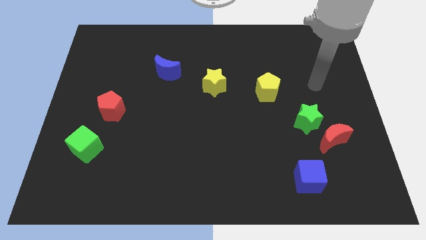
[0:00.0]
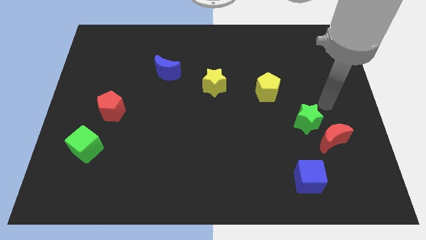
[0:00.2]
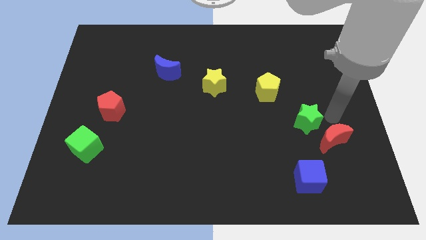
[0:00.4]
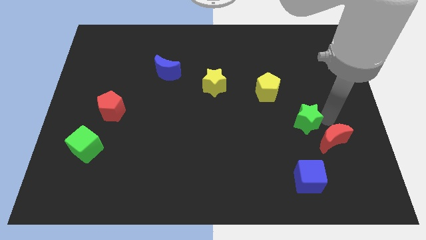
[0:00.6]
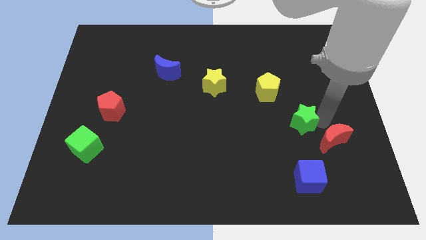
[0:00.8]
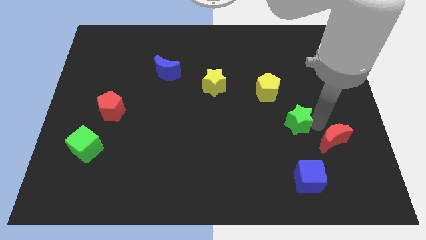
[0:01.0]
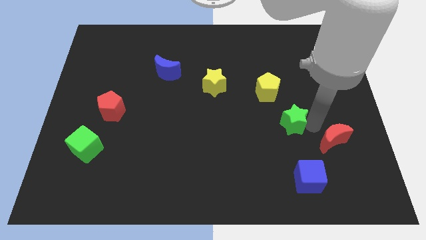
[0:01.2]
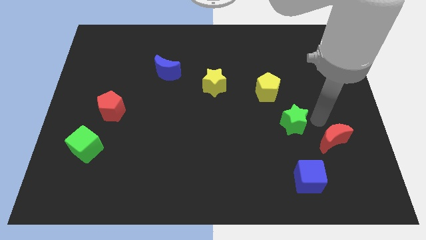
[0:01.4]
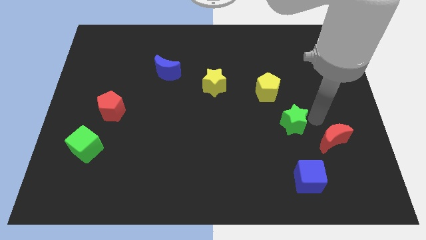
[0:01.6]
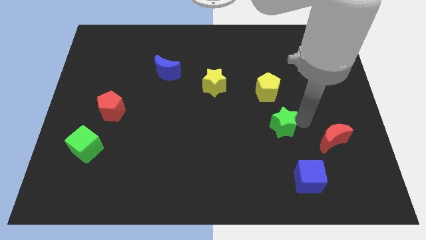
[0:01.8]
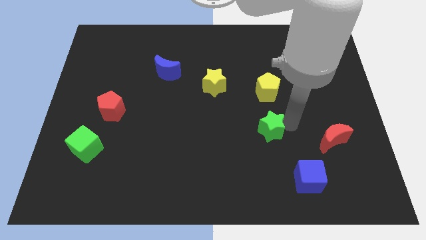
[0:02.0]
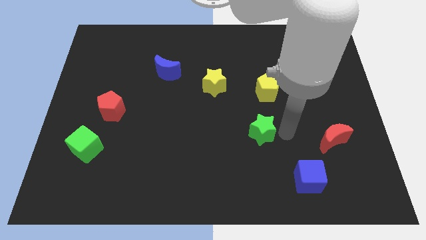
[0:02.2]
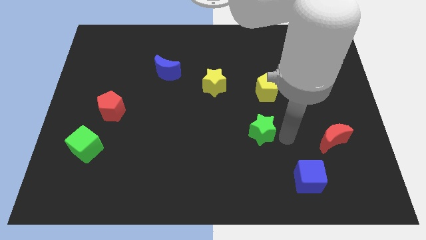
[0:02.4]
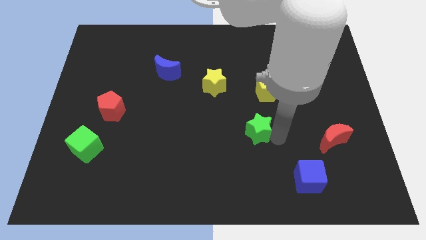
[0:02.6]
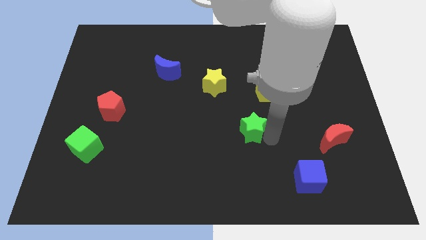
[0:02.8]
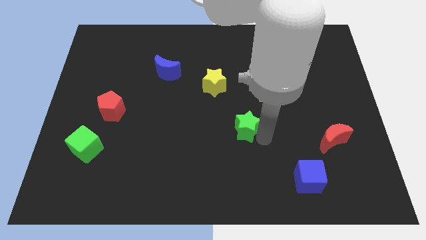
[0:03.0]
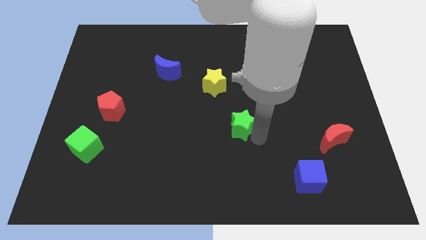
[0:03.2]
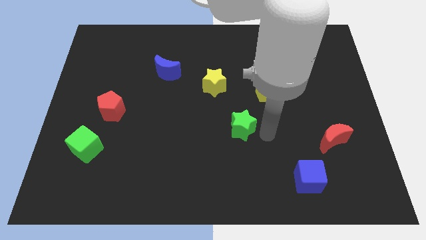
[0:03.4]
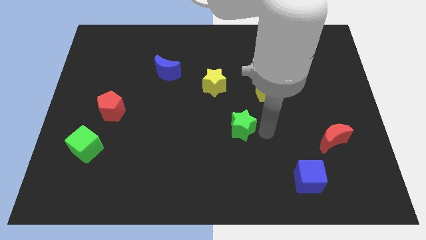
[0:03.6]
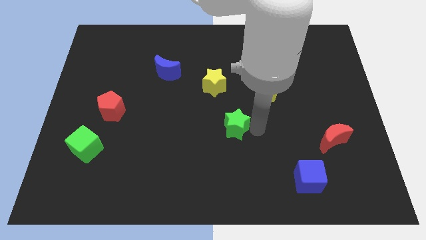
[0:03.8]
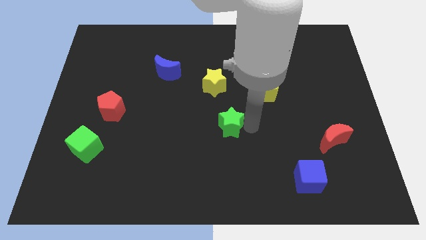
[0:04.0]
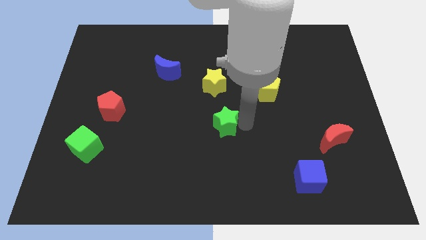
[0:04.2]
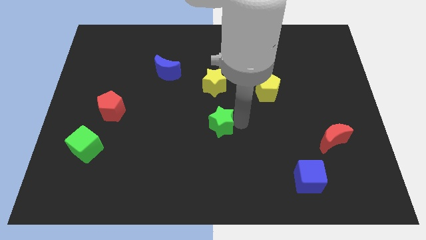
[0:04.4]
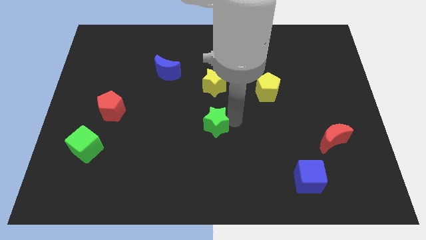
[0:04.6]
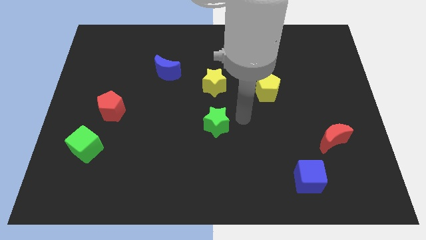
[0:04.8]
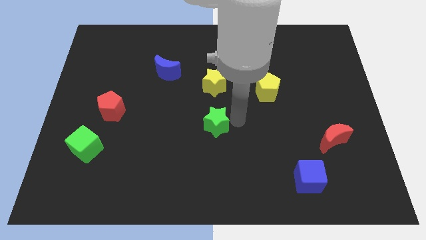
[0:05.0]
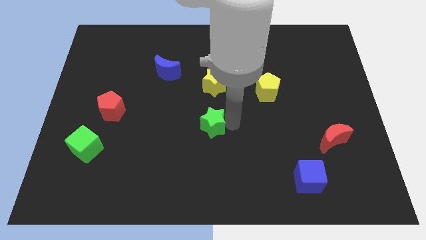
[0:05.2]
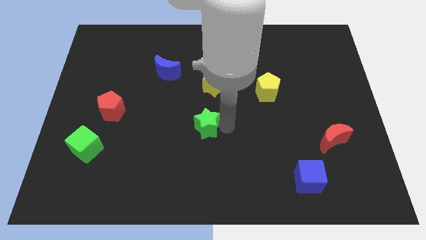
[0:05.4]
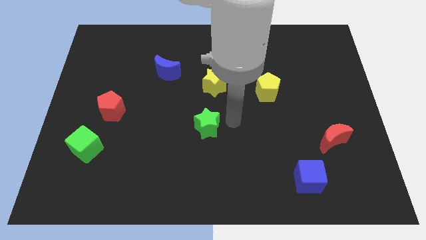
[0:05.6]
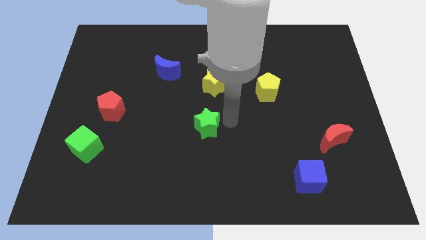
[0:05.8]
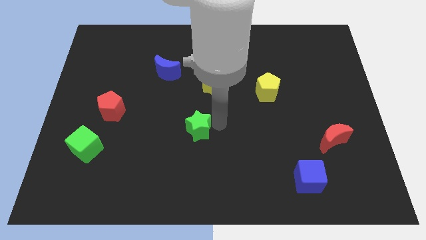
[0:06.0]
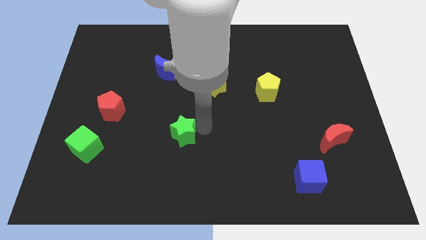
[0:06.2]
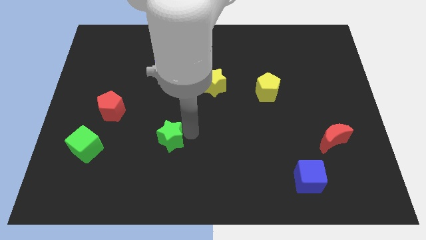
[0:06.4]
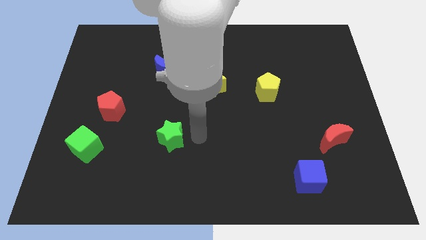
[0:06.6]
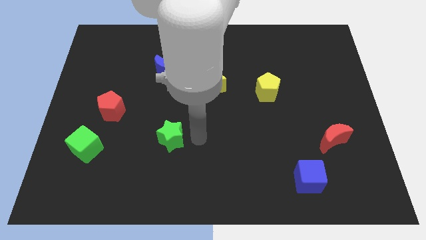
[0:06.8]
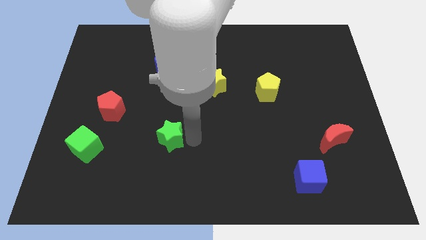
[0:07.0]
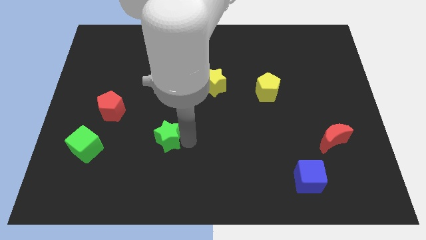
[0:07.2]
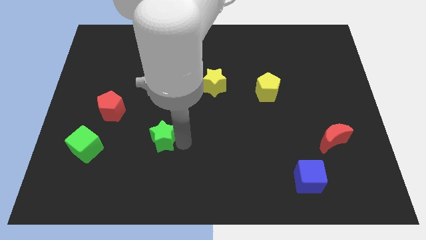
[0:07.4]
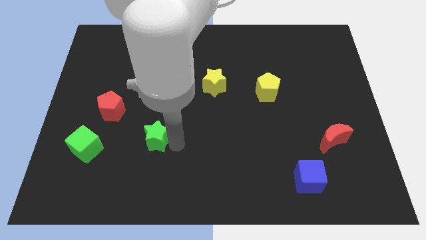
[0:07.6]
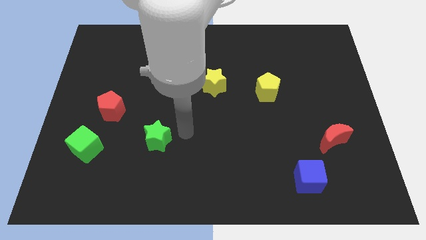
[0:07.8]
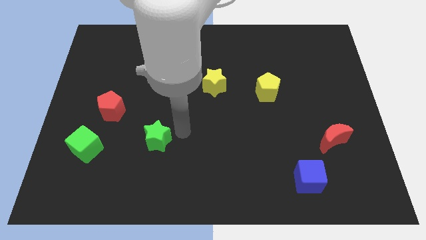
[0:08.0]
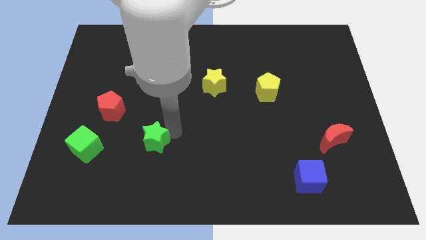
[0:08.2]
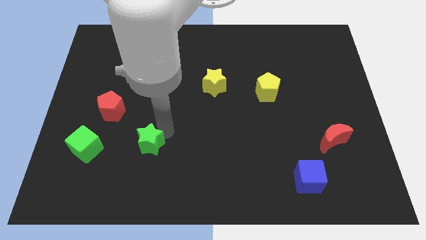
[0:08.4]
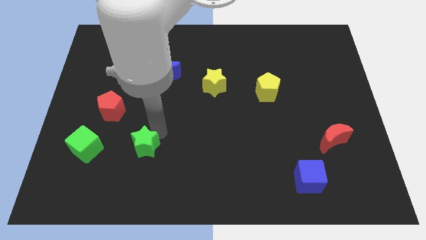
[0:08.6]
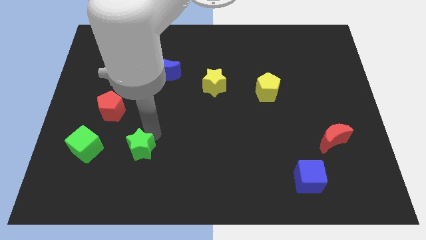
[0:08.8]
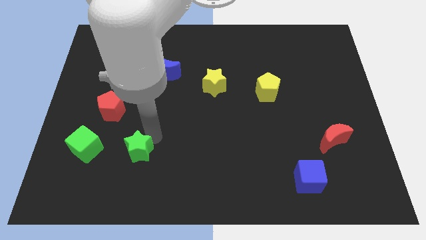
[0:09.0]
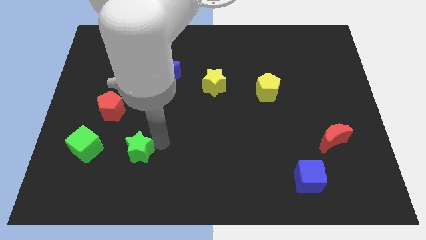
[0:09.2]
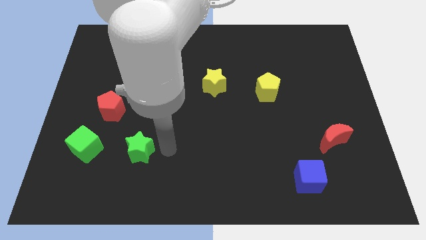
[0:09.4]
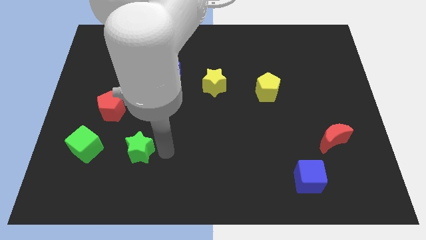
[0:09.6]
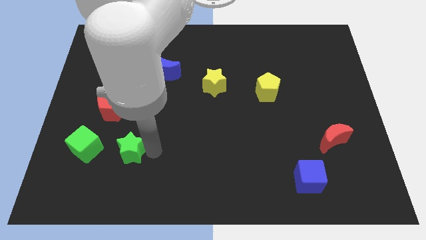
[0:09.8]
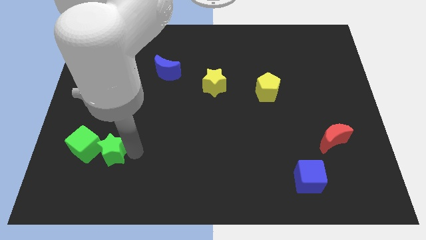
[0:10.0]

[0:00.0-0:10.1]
slide the green star to the green cube

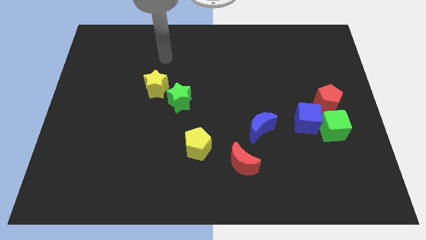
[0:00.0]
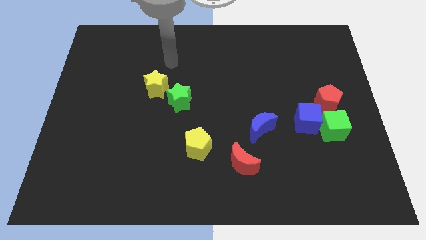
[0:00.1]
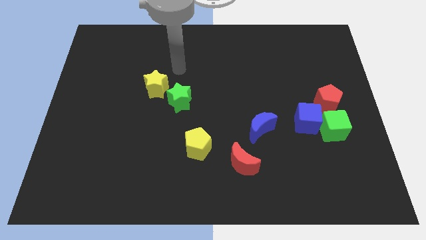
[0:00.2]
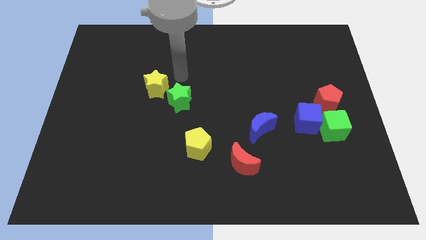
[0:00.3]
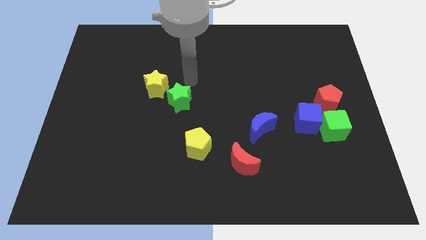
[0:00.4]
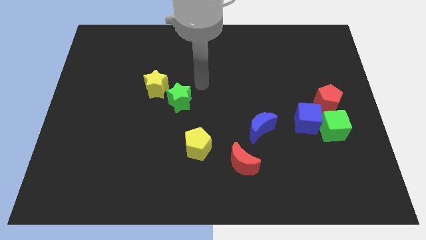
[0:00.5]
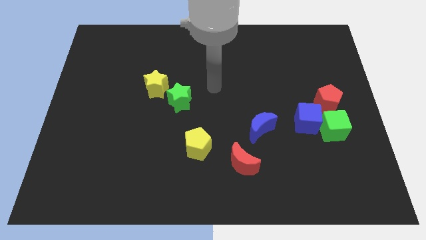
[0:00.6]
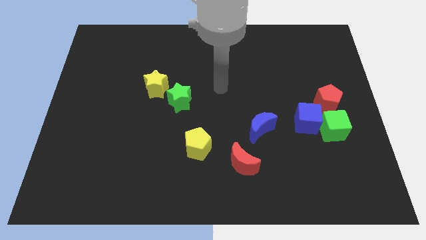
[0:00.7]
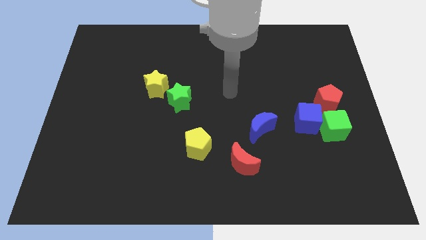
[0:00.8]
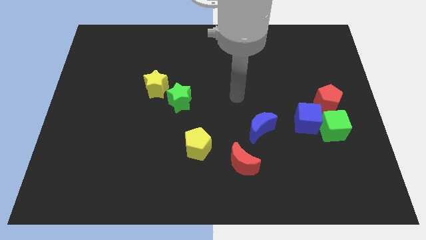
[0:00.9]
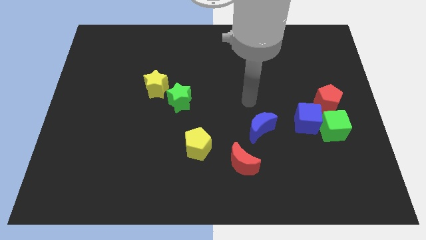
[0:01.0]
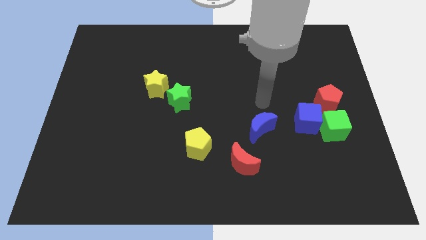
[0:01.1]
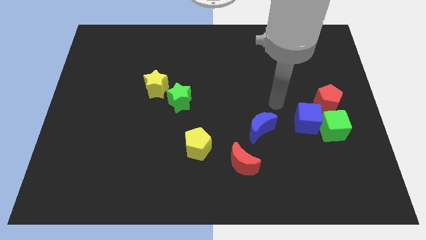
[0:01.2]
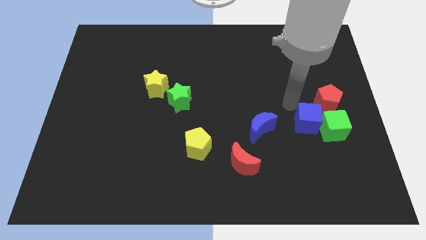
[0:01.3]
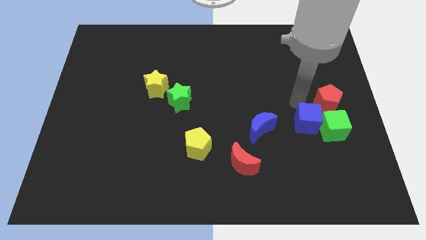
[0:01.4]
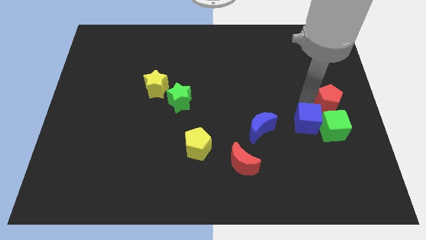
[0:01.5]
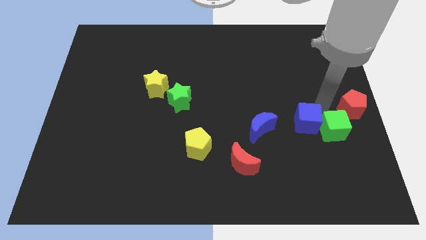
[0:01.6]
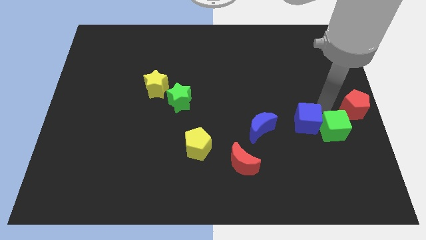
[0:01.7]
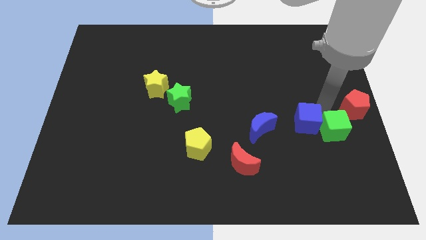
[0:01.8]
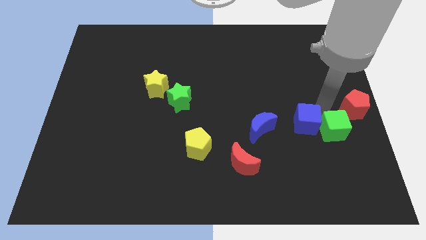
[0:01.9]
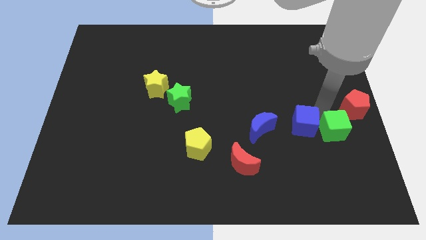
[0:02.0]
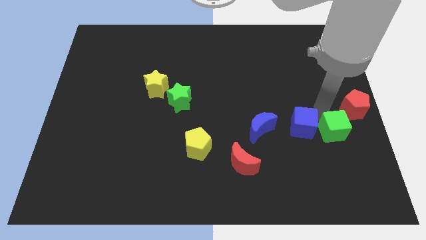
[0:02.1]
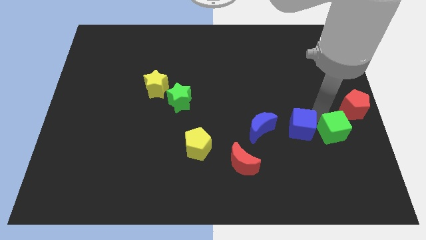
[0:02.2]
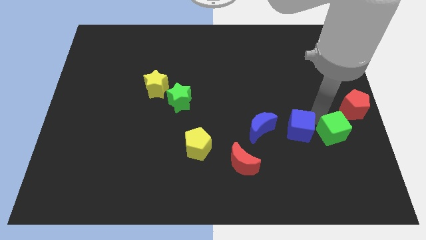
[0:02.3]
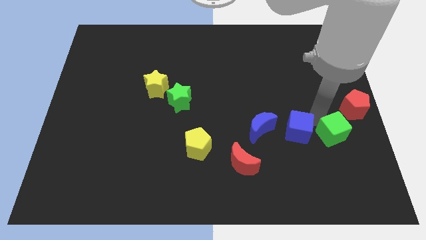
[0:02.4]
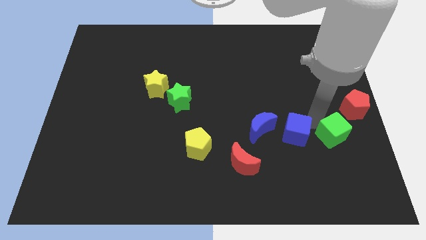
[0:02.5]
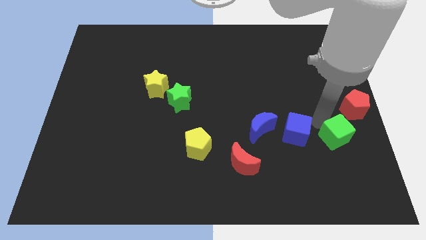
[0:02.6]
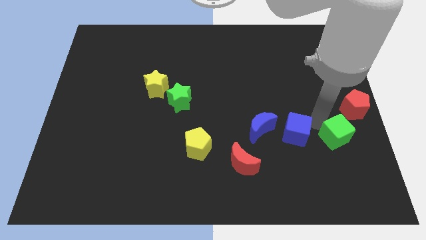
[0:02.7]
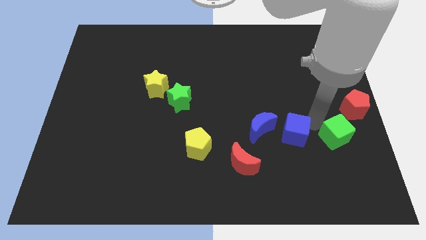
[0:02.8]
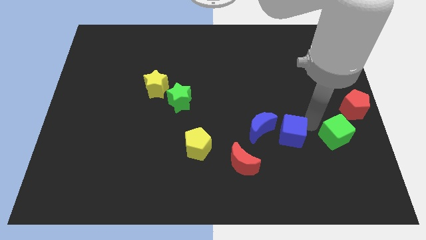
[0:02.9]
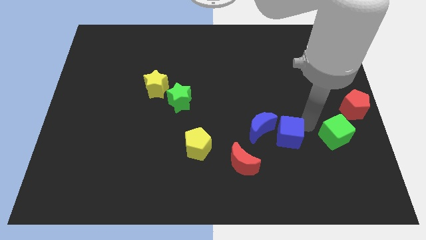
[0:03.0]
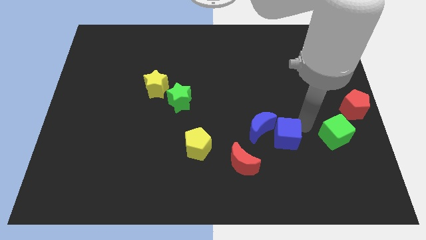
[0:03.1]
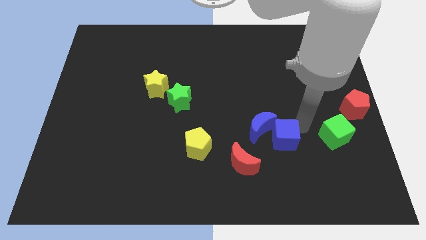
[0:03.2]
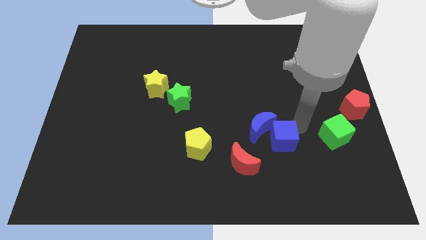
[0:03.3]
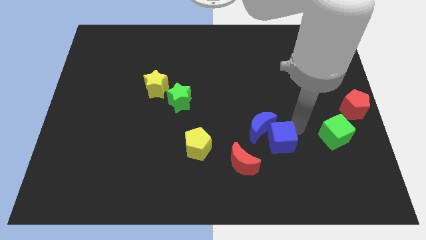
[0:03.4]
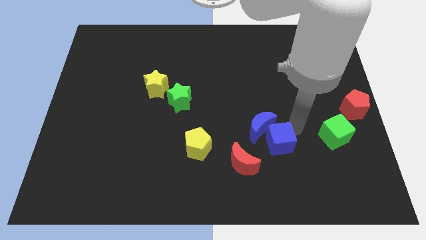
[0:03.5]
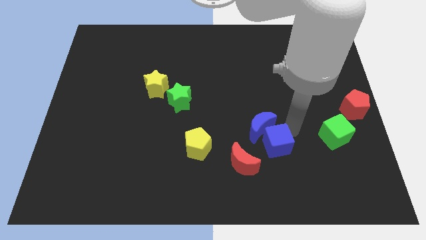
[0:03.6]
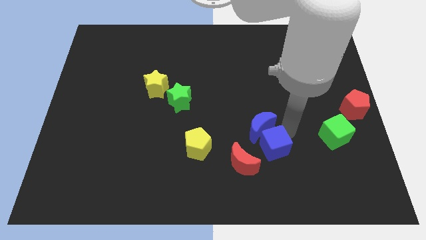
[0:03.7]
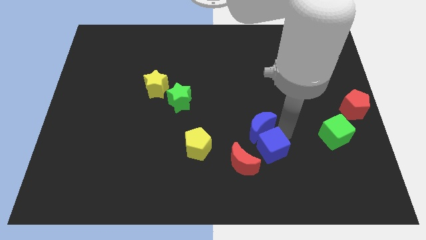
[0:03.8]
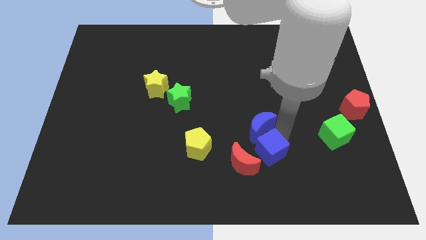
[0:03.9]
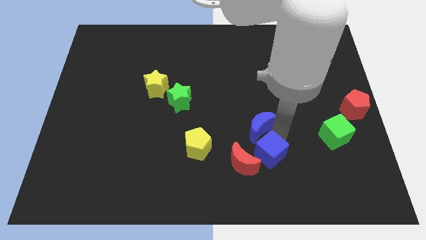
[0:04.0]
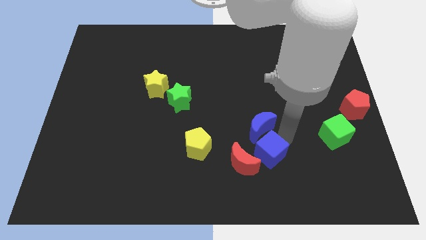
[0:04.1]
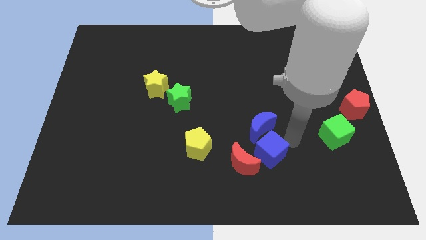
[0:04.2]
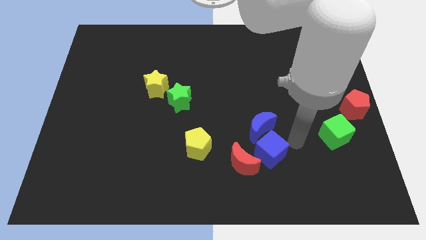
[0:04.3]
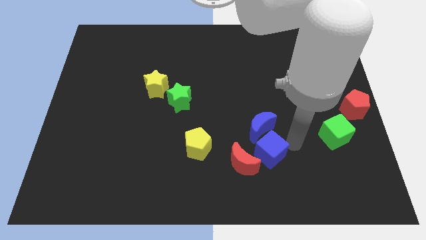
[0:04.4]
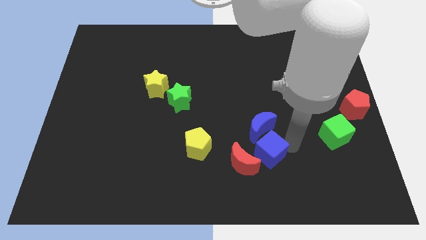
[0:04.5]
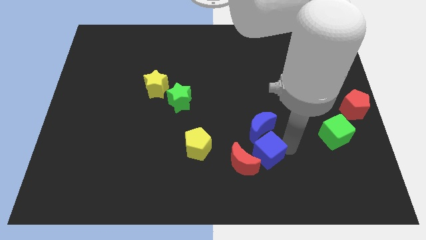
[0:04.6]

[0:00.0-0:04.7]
put the blue cube to the red moon
